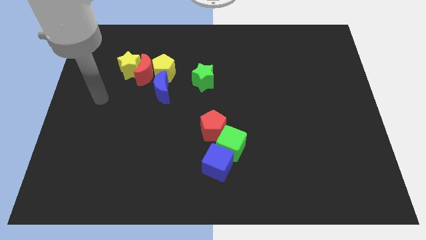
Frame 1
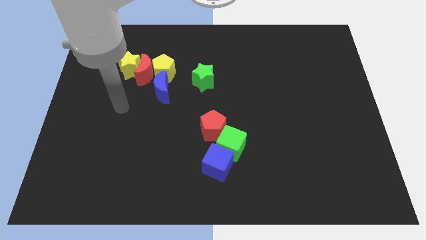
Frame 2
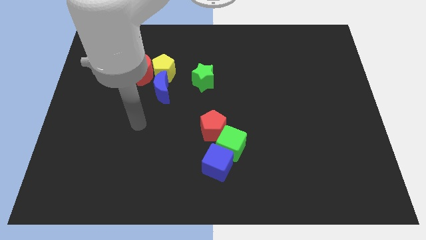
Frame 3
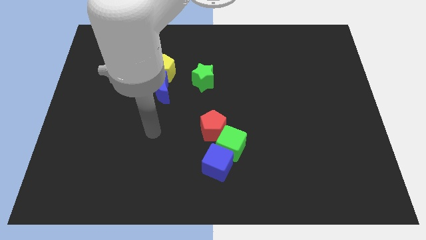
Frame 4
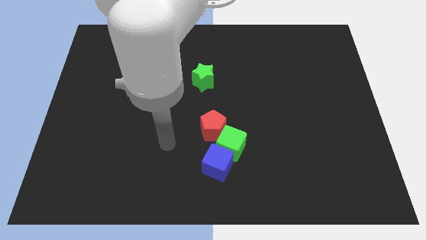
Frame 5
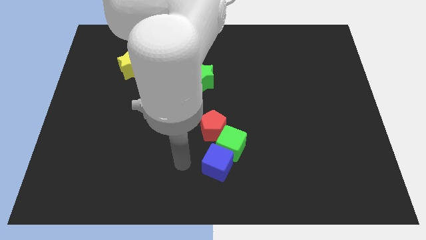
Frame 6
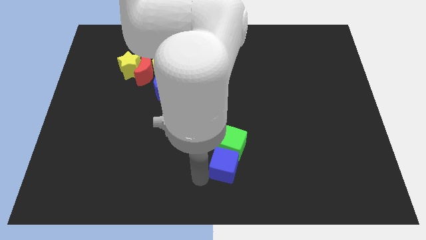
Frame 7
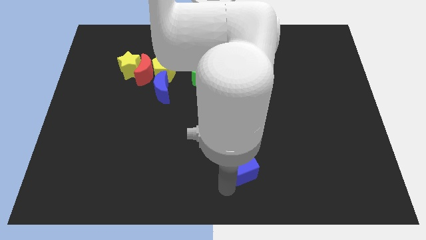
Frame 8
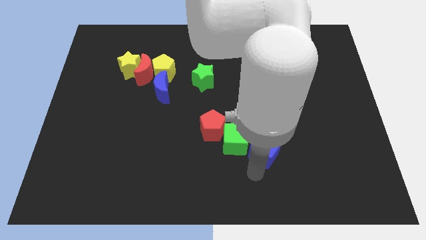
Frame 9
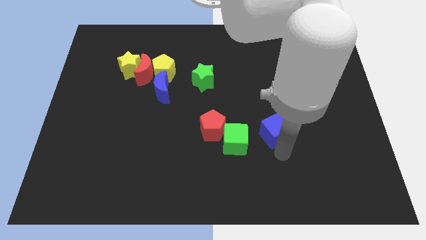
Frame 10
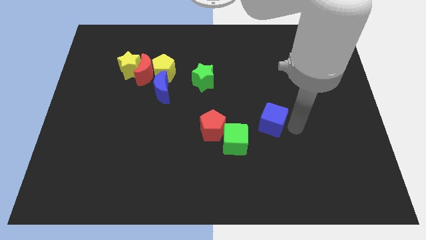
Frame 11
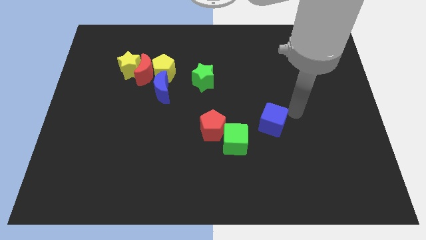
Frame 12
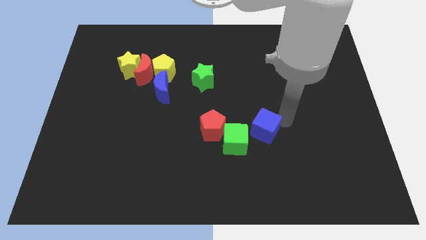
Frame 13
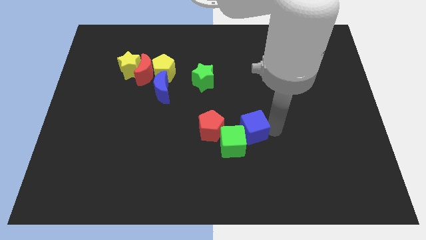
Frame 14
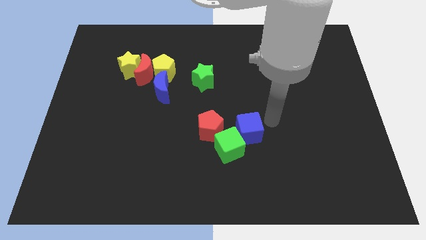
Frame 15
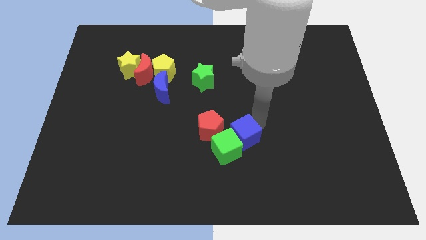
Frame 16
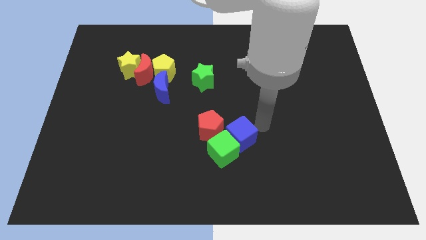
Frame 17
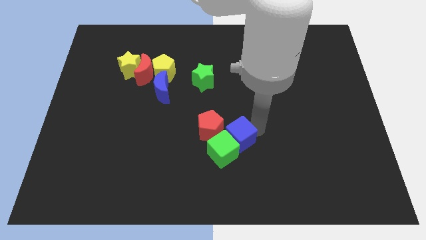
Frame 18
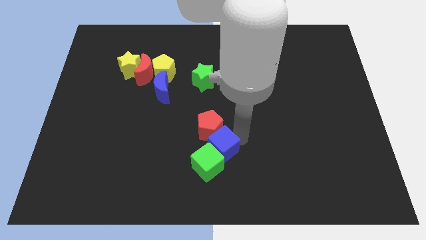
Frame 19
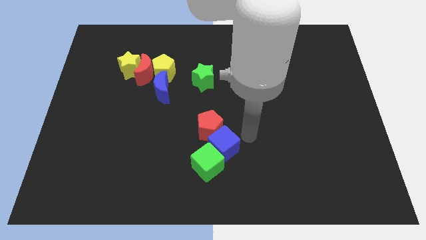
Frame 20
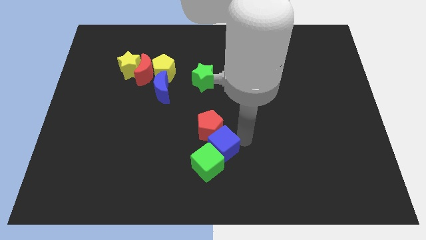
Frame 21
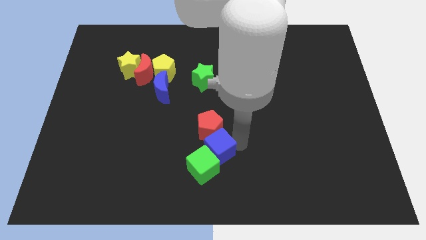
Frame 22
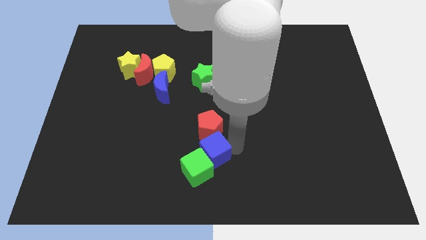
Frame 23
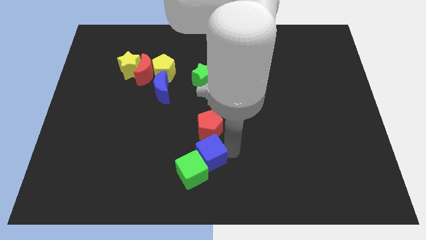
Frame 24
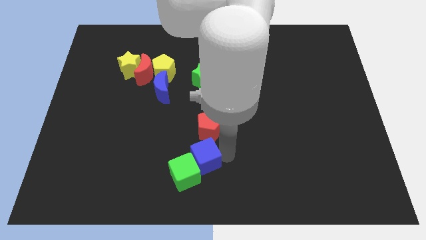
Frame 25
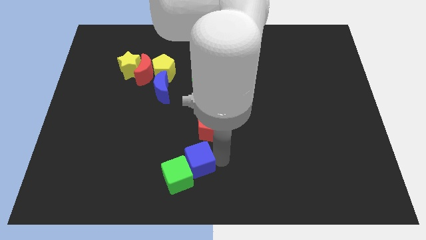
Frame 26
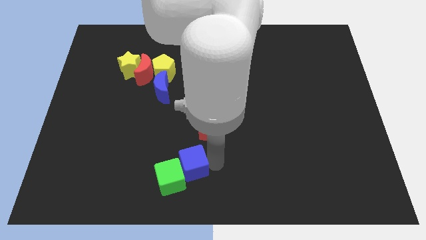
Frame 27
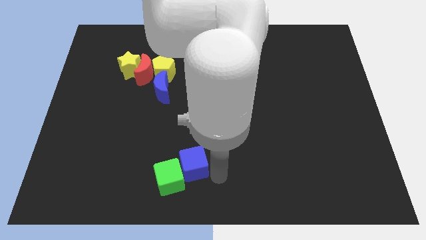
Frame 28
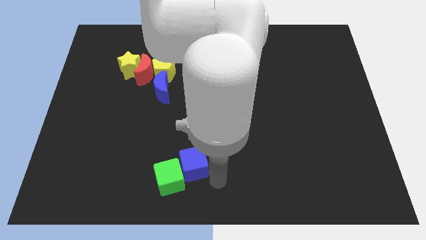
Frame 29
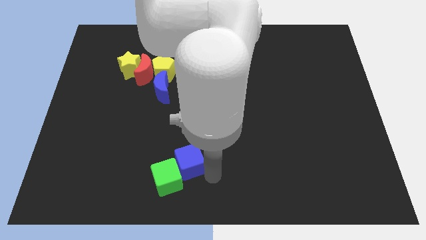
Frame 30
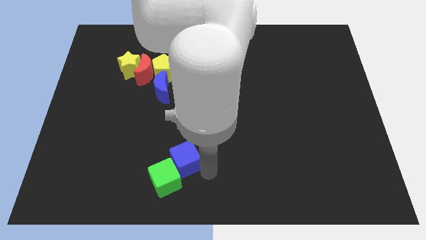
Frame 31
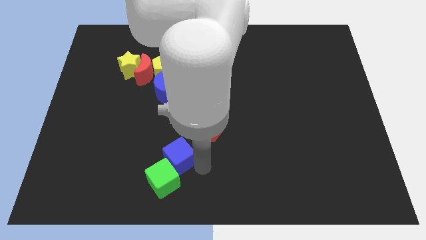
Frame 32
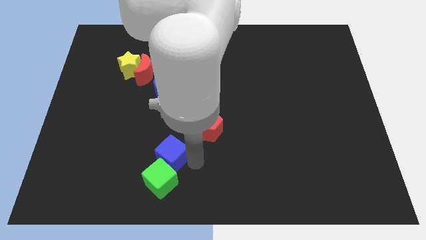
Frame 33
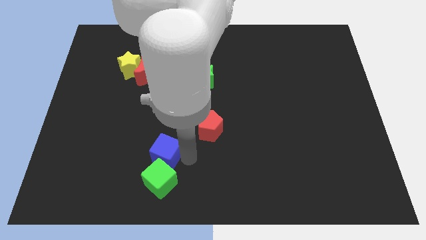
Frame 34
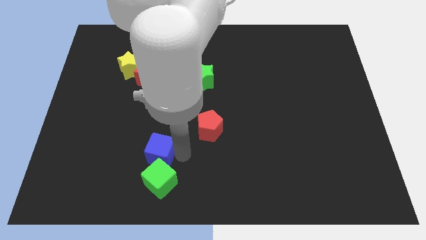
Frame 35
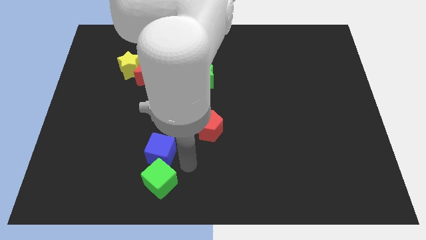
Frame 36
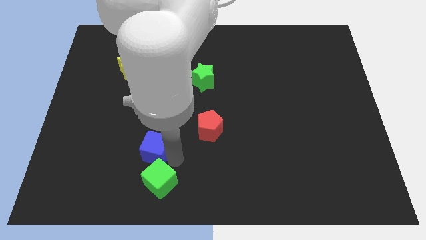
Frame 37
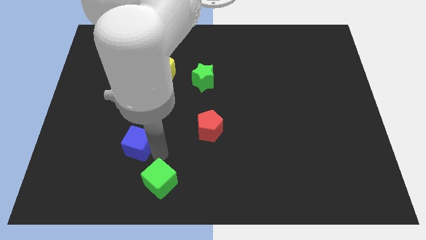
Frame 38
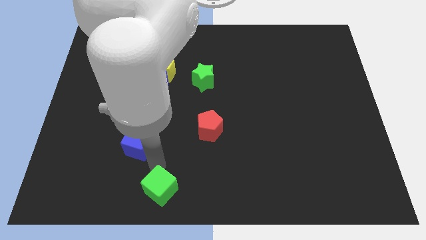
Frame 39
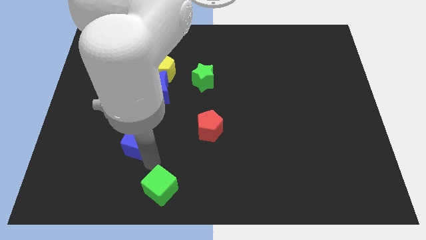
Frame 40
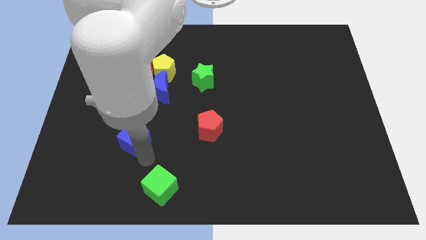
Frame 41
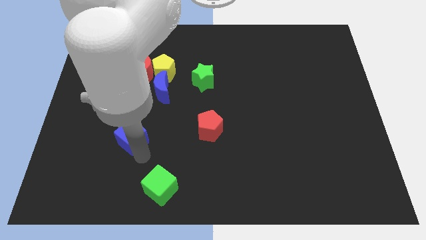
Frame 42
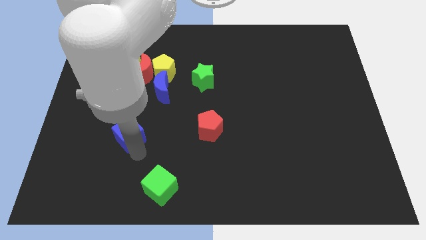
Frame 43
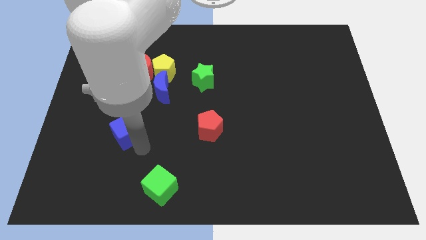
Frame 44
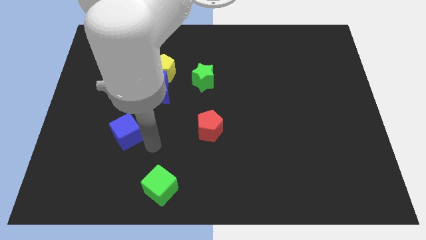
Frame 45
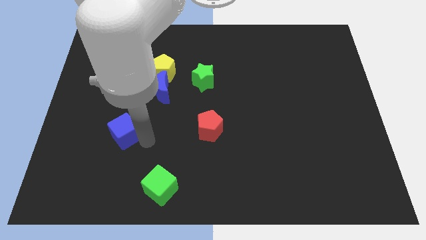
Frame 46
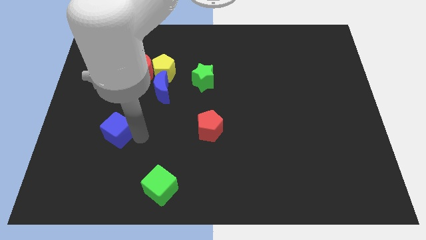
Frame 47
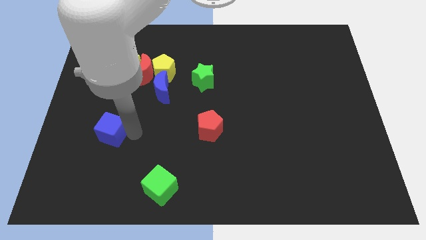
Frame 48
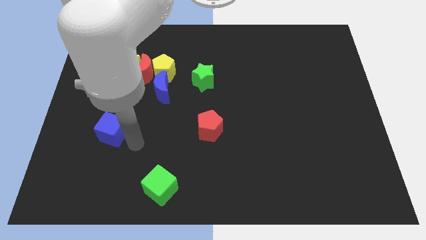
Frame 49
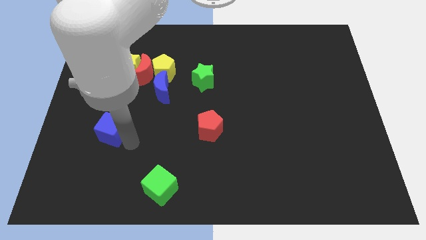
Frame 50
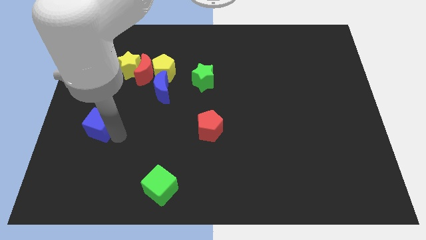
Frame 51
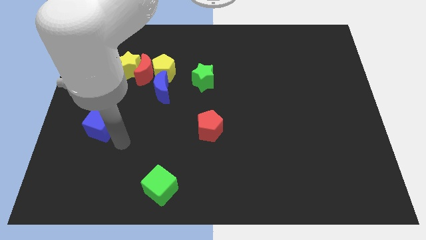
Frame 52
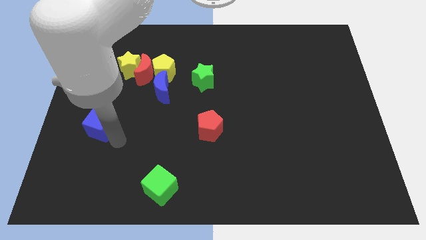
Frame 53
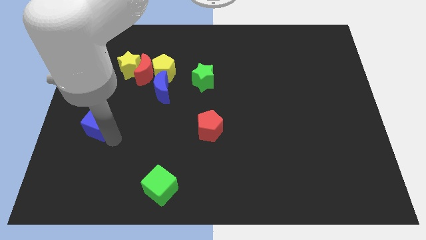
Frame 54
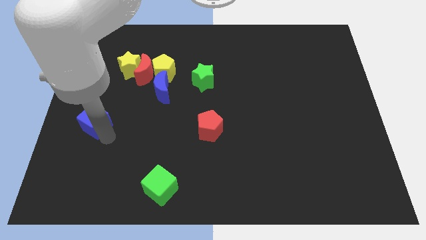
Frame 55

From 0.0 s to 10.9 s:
slide the blue cube to the left side
